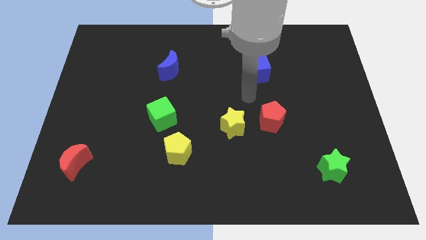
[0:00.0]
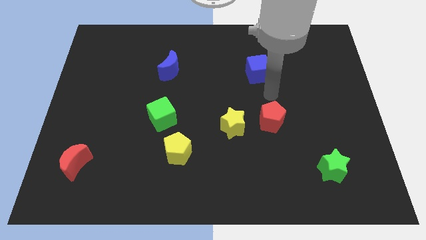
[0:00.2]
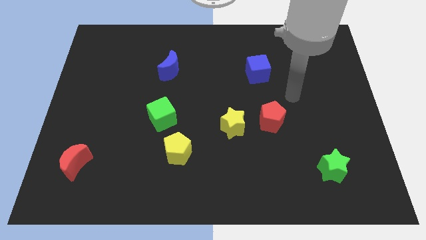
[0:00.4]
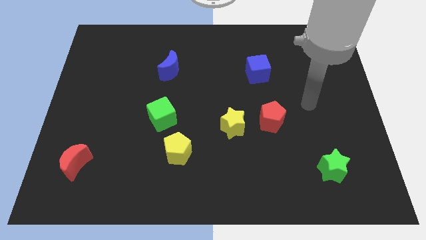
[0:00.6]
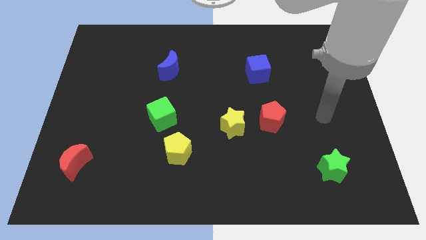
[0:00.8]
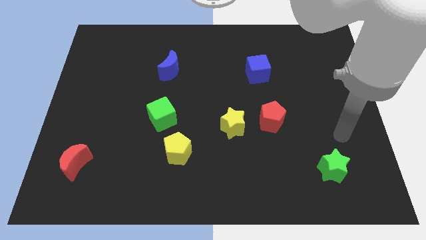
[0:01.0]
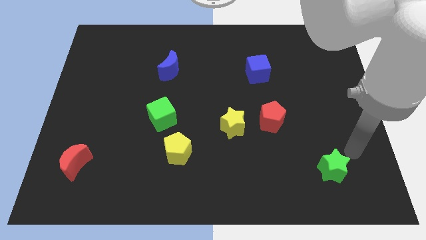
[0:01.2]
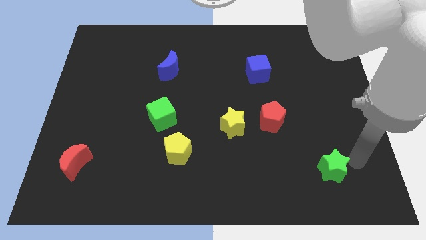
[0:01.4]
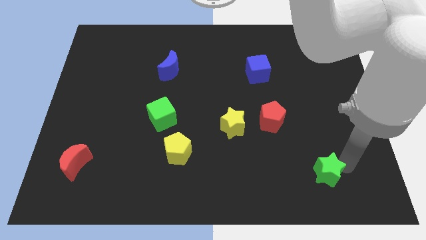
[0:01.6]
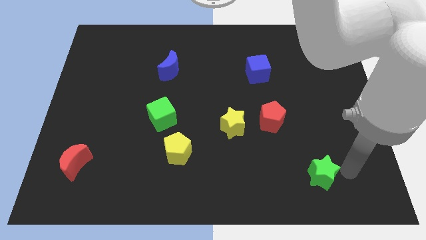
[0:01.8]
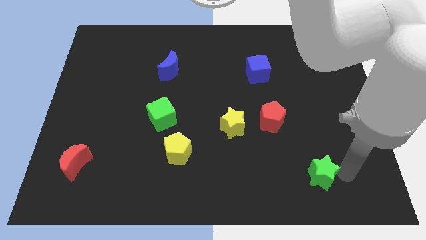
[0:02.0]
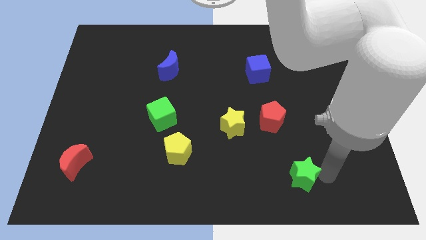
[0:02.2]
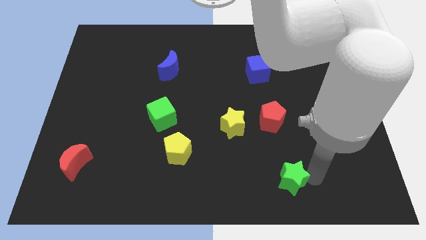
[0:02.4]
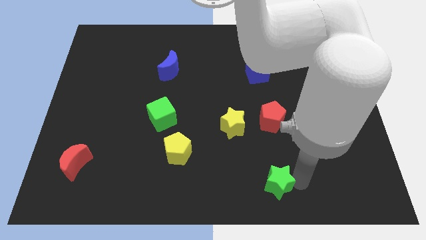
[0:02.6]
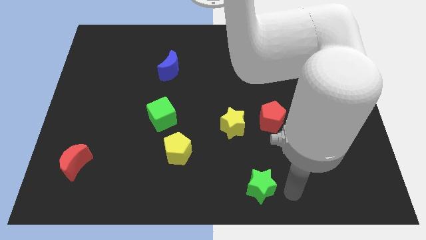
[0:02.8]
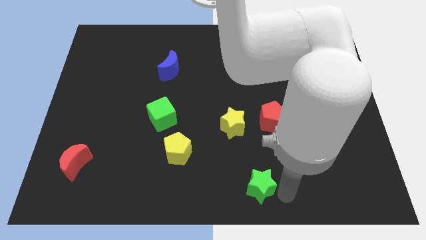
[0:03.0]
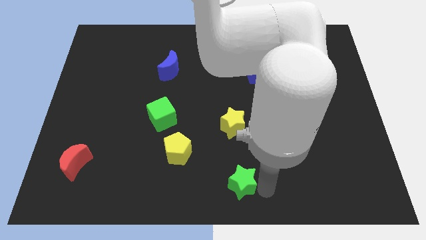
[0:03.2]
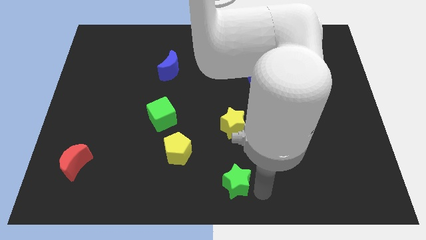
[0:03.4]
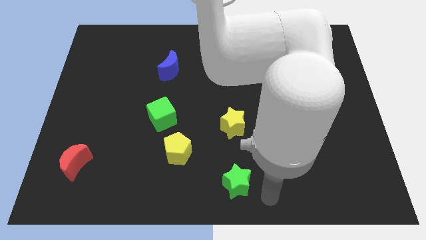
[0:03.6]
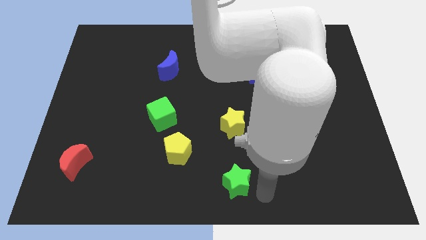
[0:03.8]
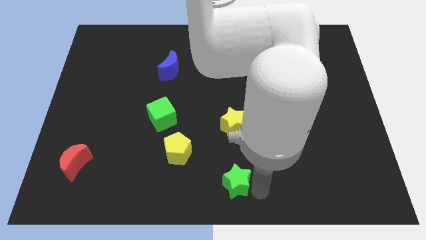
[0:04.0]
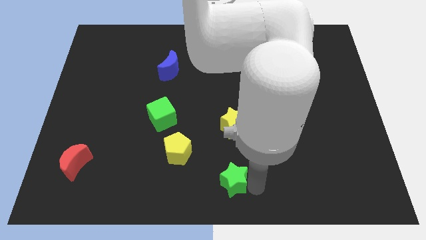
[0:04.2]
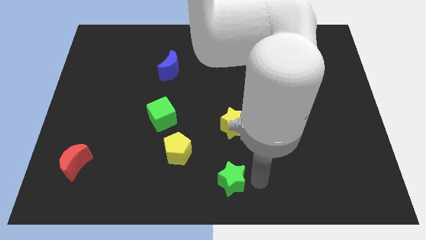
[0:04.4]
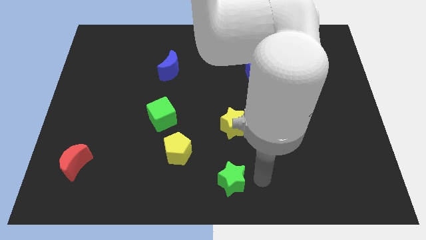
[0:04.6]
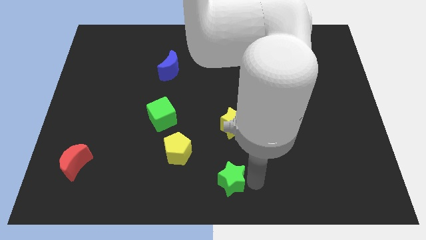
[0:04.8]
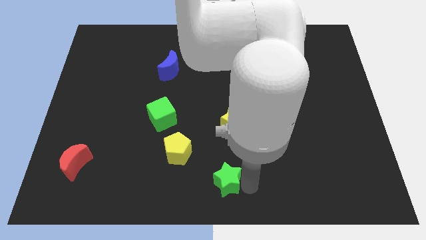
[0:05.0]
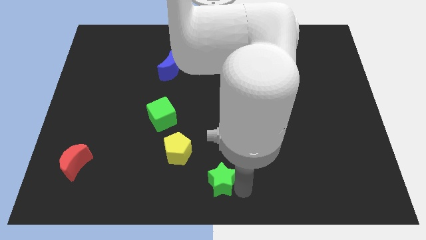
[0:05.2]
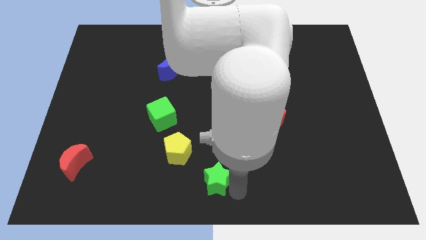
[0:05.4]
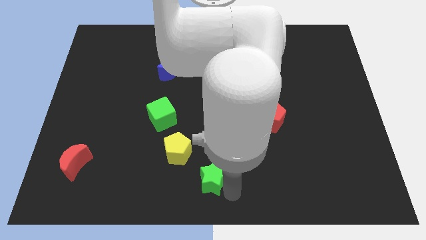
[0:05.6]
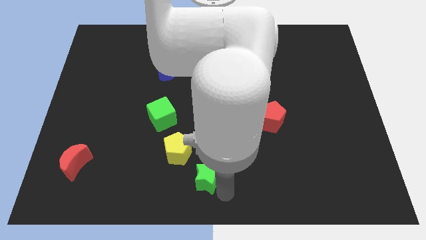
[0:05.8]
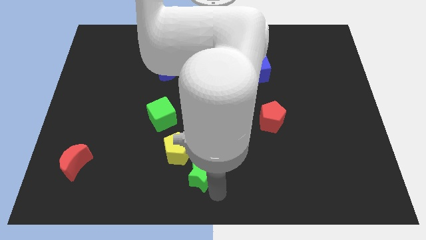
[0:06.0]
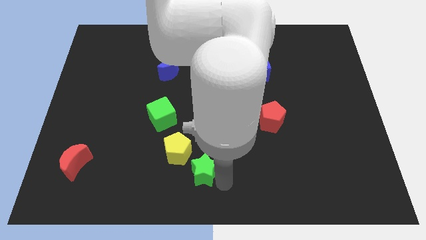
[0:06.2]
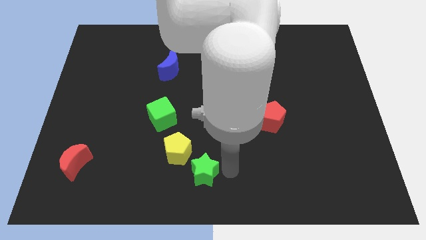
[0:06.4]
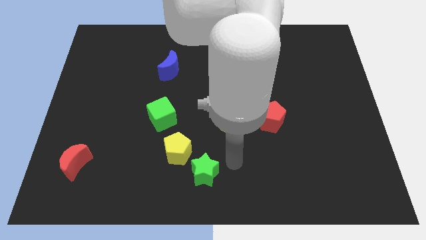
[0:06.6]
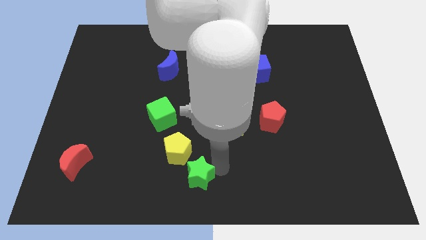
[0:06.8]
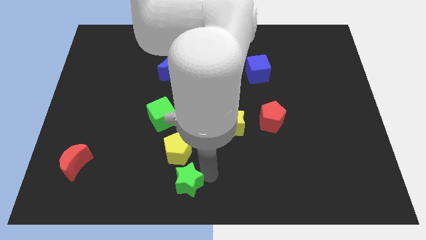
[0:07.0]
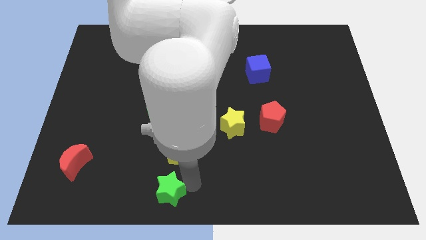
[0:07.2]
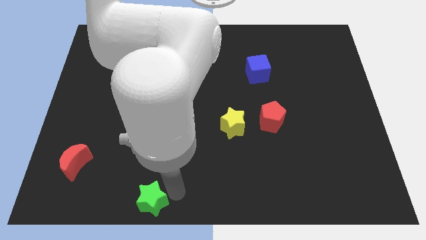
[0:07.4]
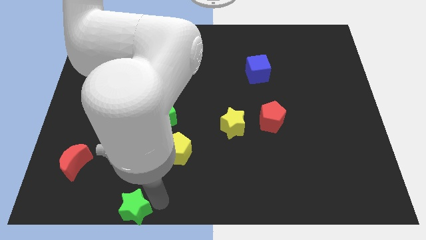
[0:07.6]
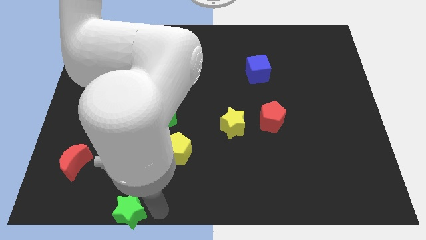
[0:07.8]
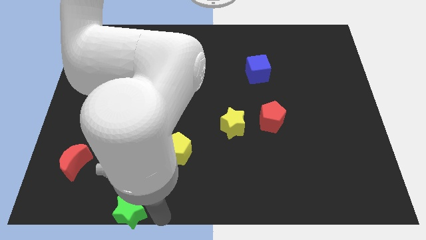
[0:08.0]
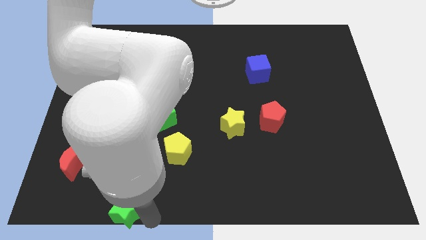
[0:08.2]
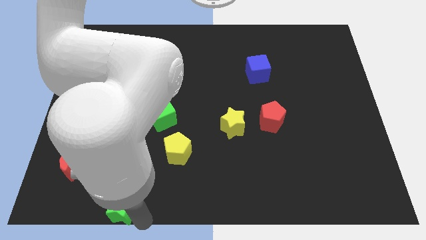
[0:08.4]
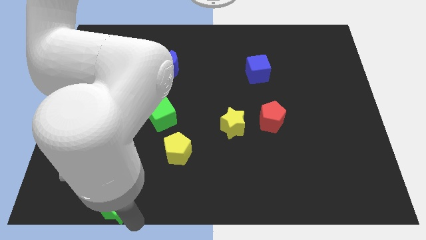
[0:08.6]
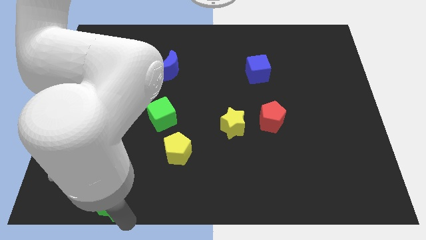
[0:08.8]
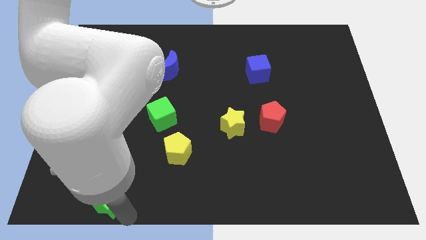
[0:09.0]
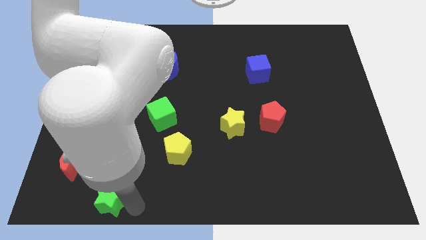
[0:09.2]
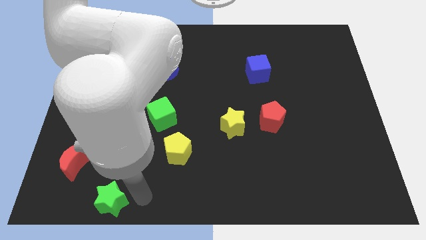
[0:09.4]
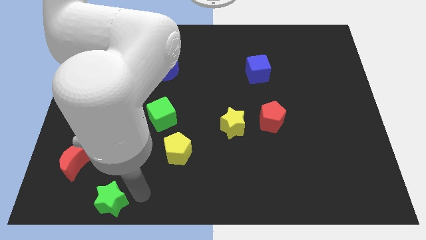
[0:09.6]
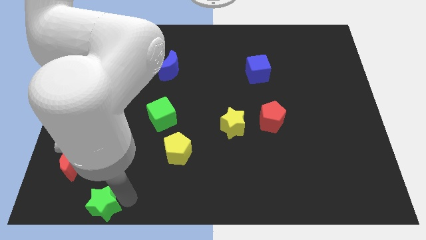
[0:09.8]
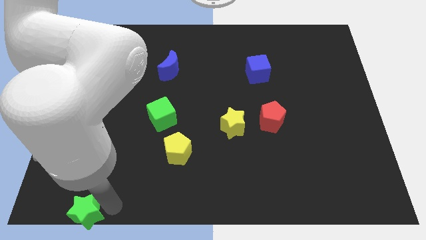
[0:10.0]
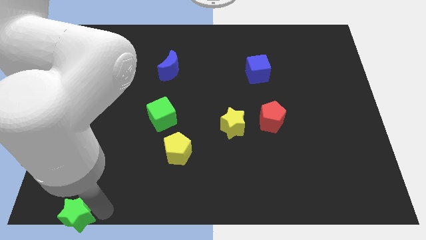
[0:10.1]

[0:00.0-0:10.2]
put the green star to the bottom left

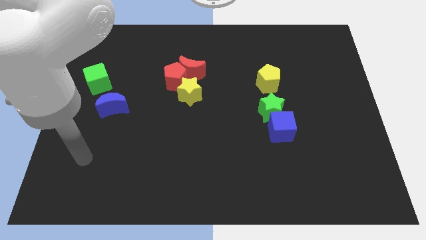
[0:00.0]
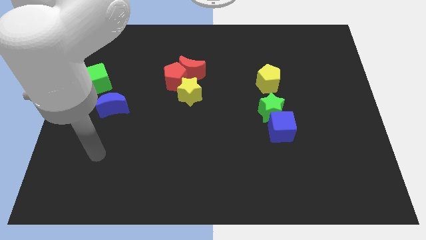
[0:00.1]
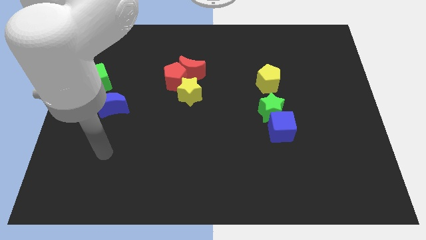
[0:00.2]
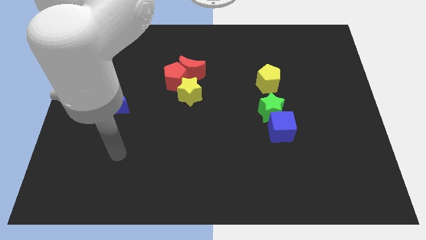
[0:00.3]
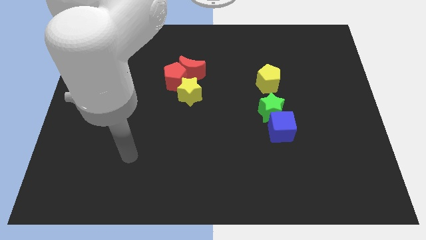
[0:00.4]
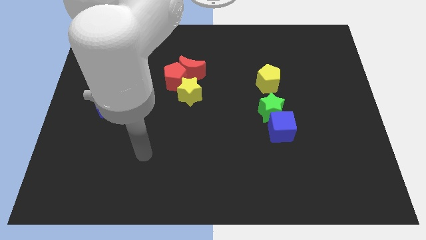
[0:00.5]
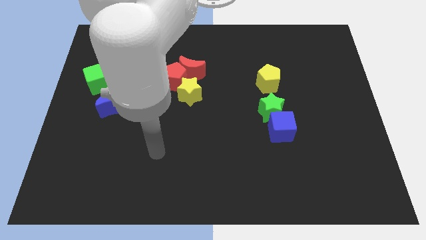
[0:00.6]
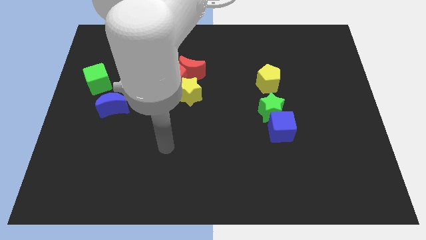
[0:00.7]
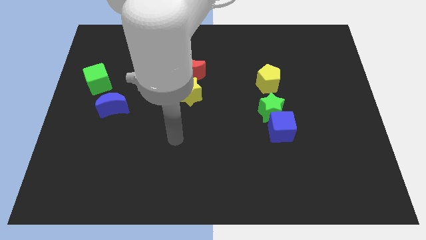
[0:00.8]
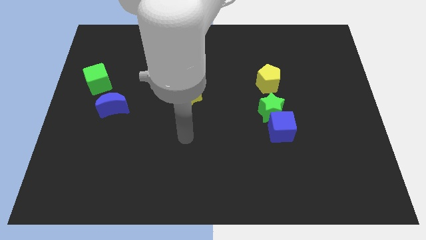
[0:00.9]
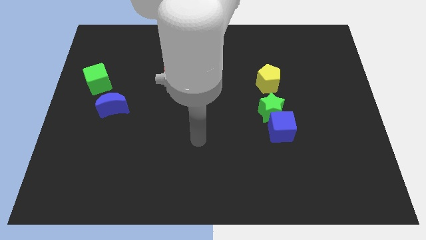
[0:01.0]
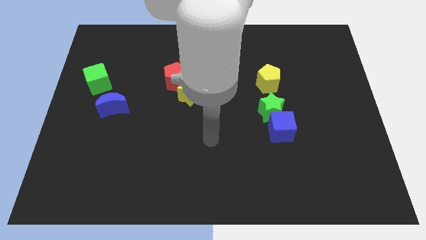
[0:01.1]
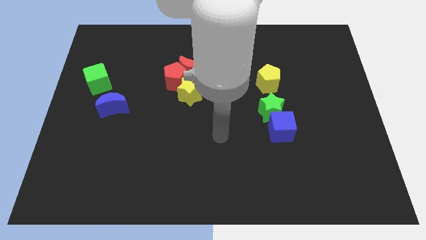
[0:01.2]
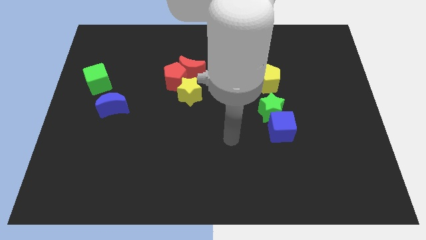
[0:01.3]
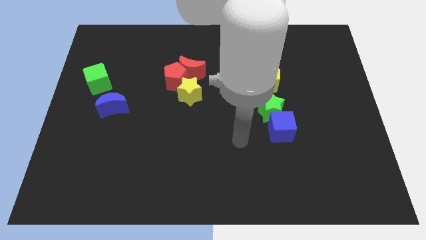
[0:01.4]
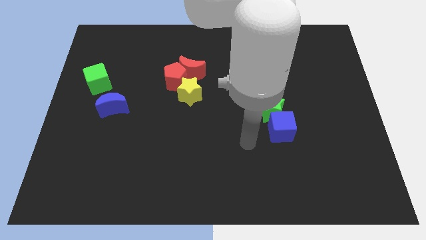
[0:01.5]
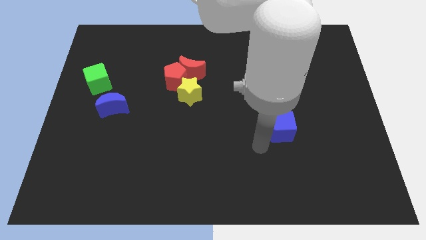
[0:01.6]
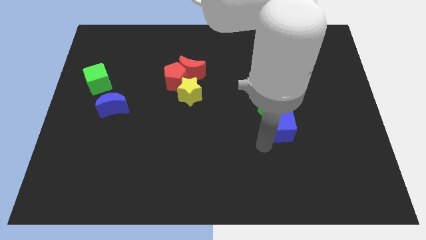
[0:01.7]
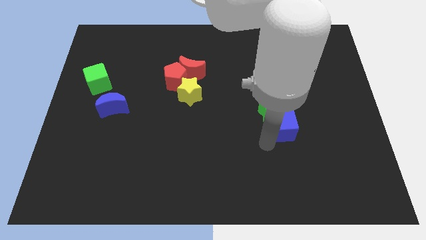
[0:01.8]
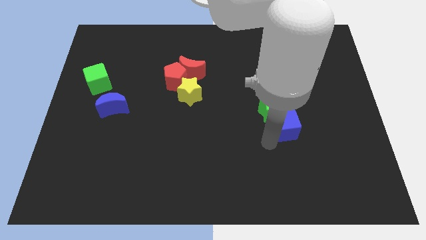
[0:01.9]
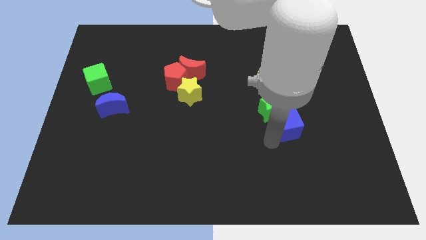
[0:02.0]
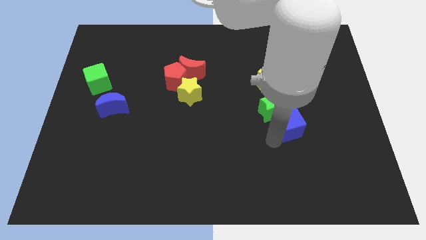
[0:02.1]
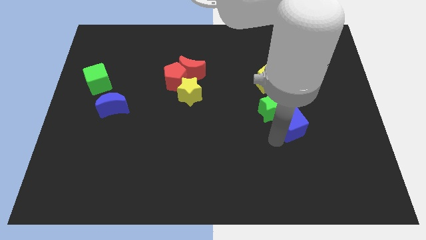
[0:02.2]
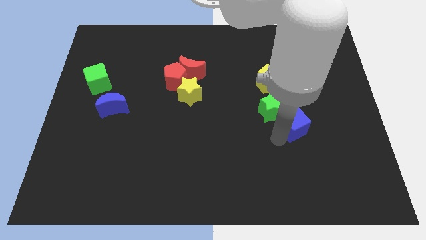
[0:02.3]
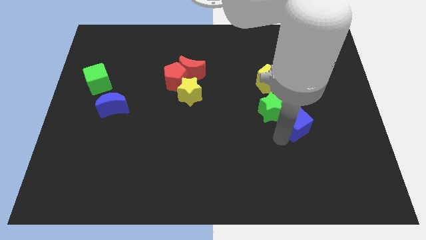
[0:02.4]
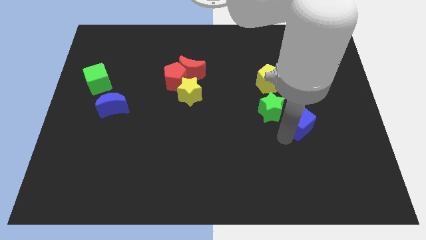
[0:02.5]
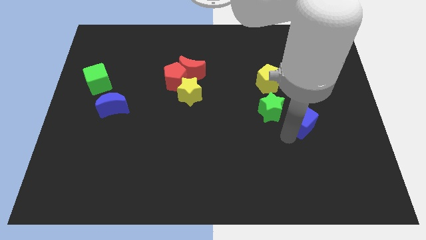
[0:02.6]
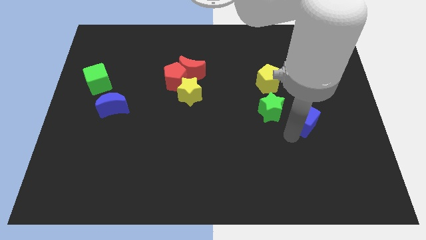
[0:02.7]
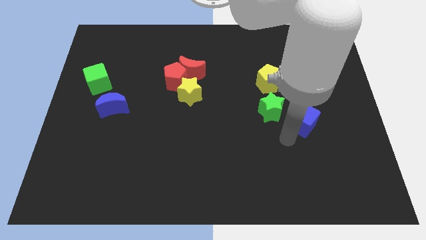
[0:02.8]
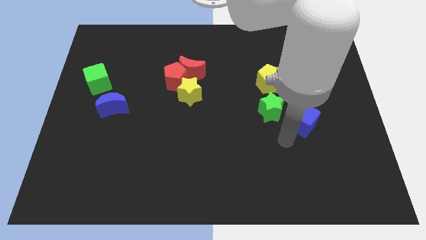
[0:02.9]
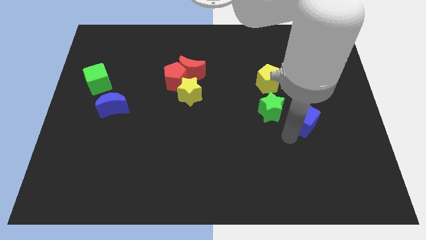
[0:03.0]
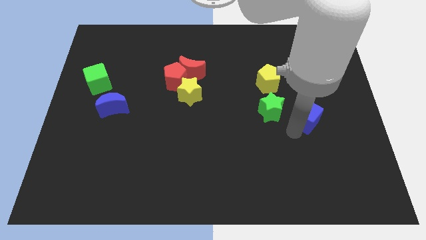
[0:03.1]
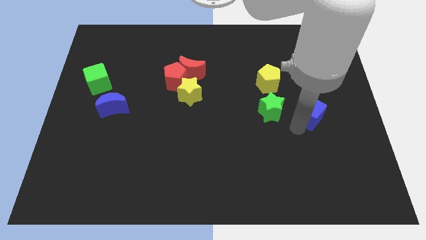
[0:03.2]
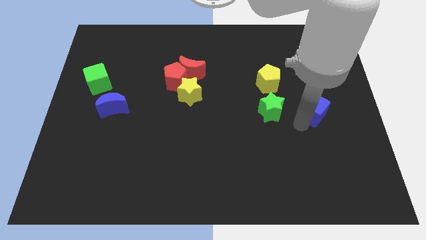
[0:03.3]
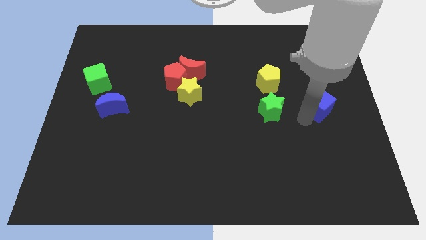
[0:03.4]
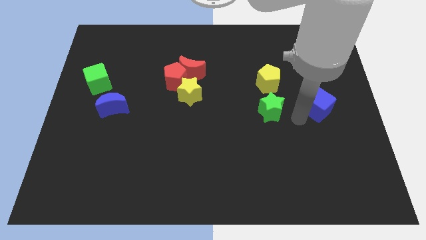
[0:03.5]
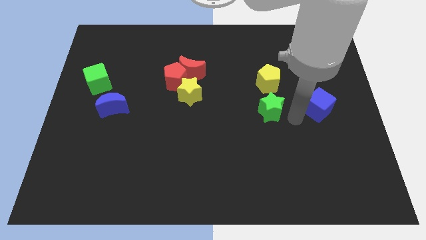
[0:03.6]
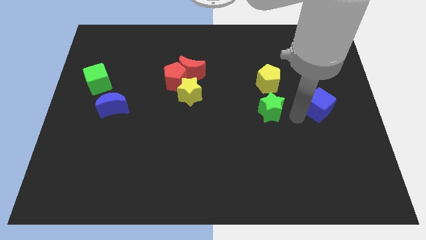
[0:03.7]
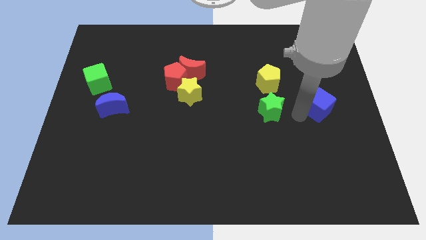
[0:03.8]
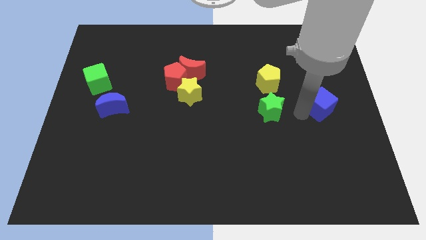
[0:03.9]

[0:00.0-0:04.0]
push the blue cube to the right side of the board
